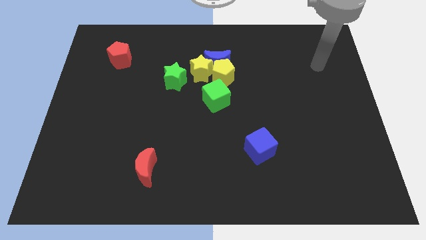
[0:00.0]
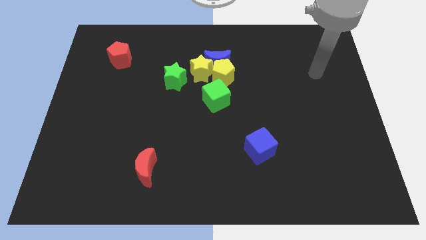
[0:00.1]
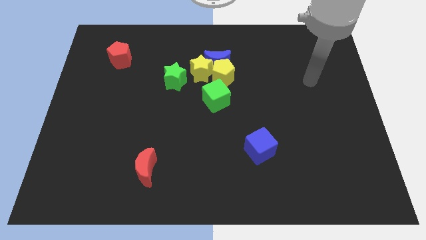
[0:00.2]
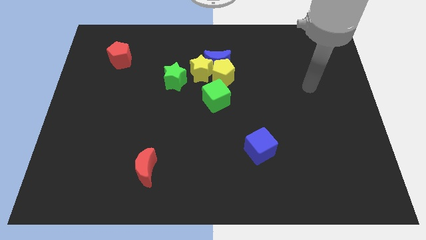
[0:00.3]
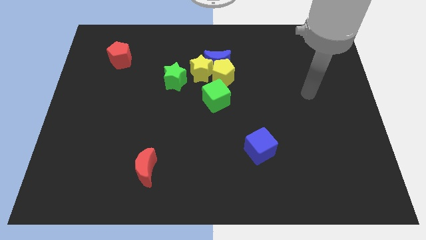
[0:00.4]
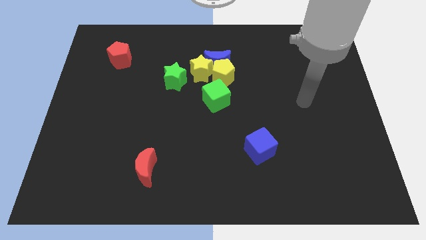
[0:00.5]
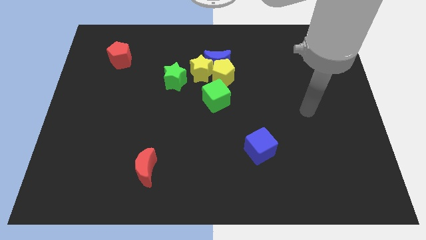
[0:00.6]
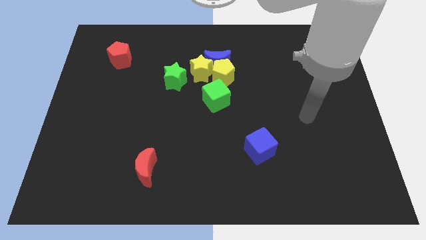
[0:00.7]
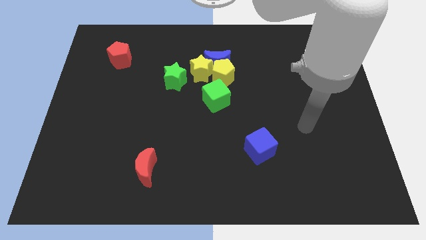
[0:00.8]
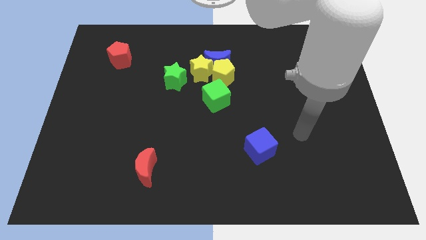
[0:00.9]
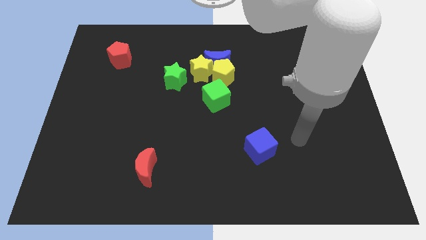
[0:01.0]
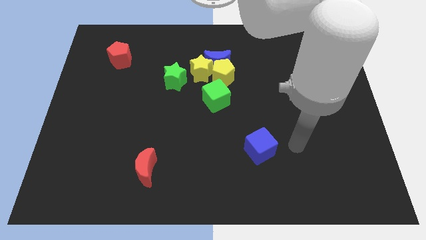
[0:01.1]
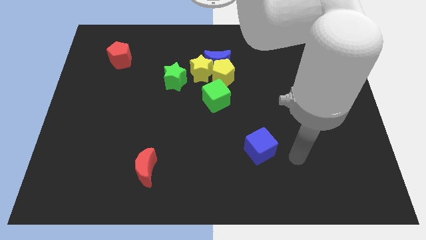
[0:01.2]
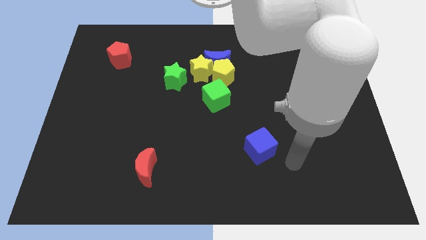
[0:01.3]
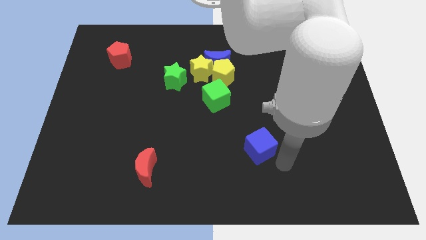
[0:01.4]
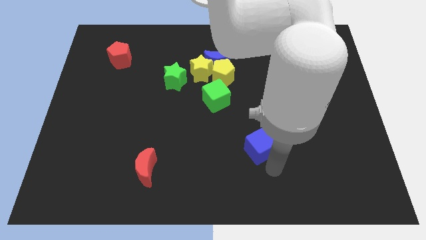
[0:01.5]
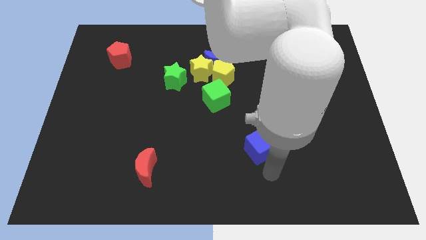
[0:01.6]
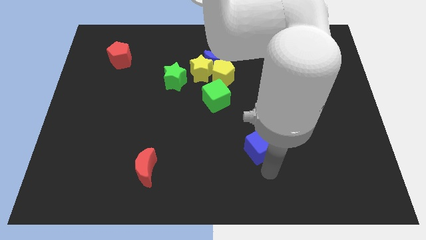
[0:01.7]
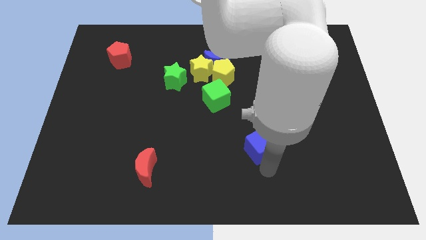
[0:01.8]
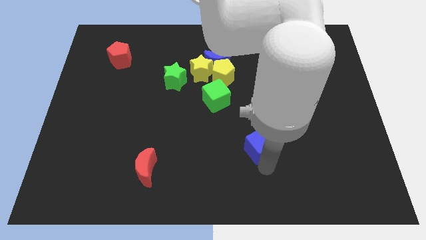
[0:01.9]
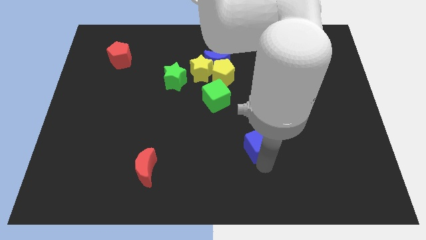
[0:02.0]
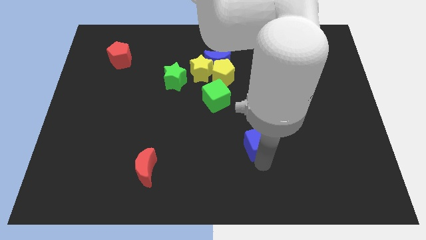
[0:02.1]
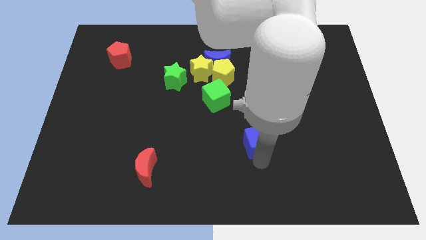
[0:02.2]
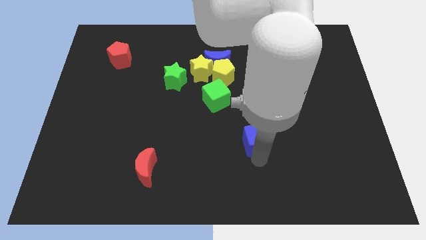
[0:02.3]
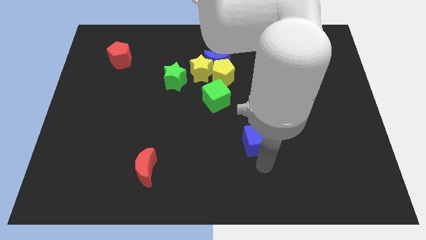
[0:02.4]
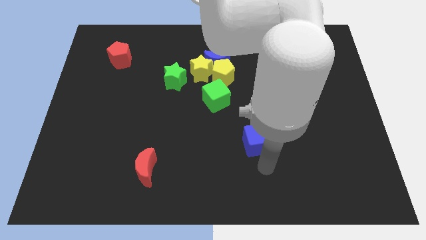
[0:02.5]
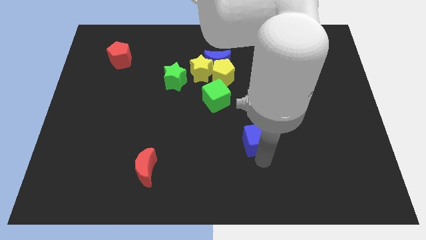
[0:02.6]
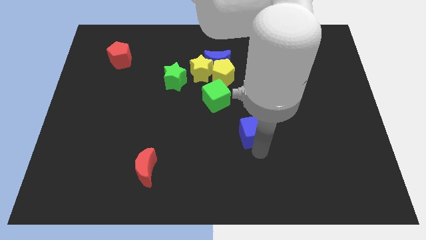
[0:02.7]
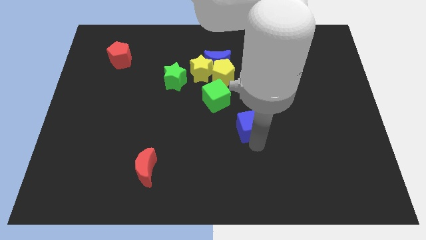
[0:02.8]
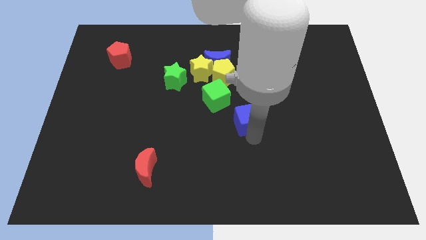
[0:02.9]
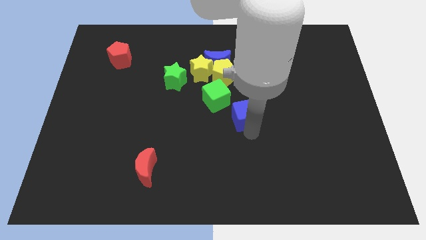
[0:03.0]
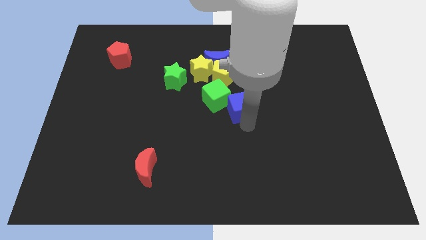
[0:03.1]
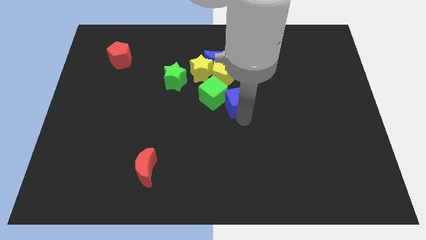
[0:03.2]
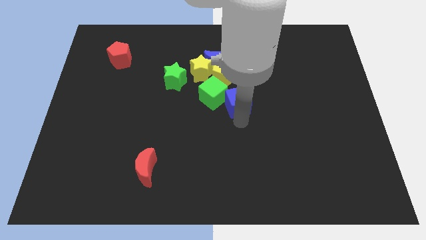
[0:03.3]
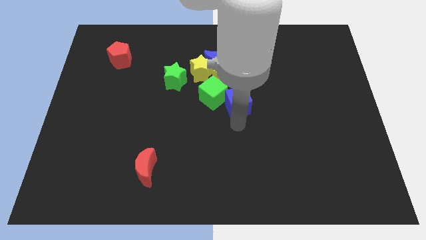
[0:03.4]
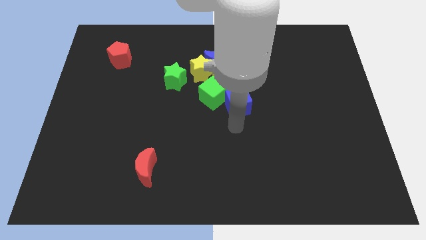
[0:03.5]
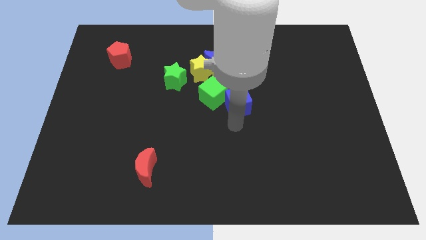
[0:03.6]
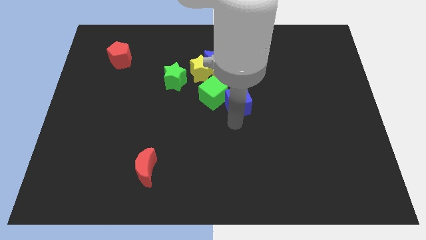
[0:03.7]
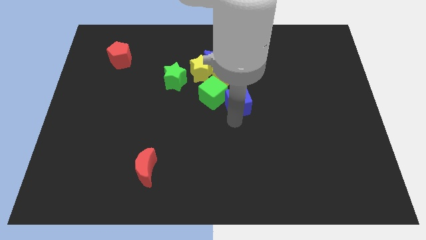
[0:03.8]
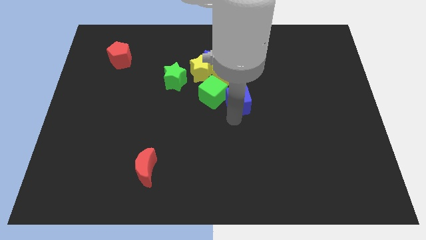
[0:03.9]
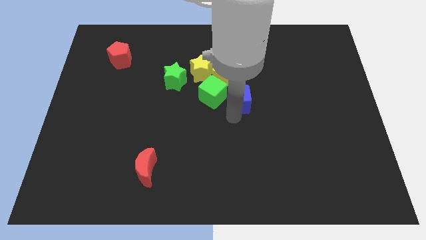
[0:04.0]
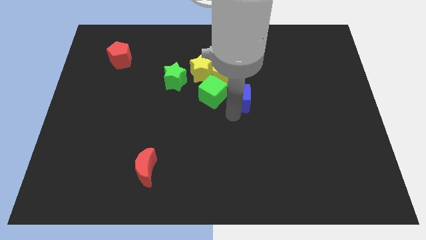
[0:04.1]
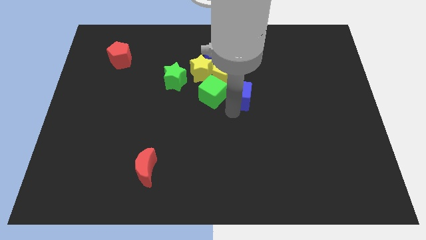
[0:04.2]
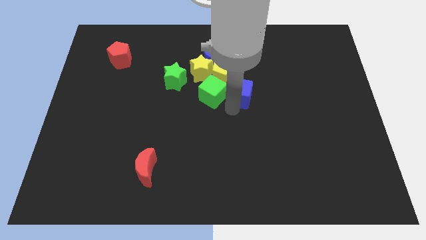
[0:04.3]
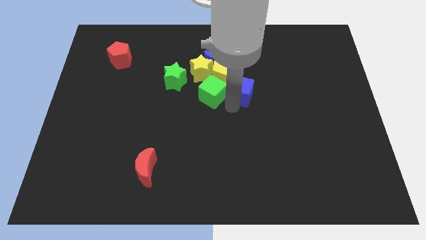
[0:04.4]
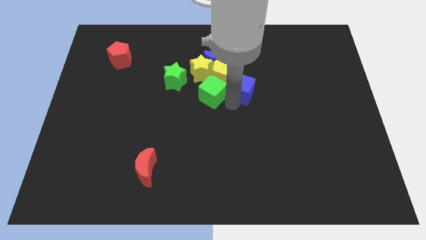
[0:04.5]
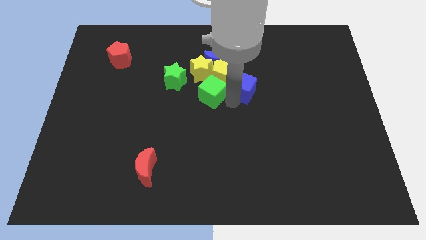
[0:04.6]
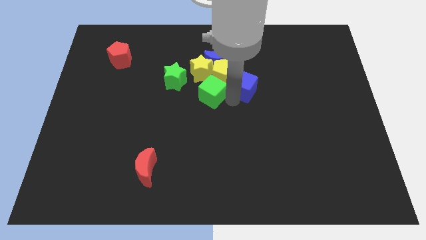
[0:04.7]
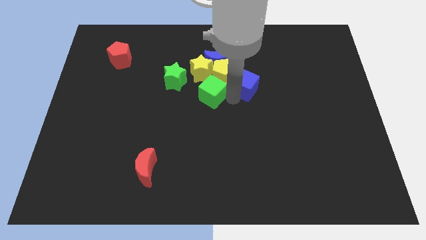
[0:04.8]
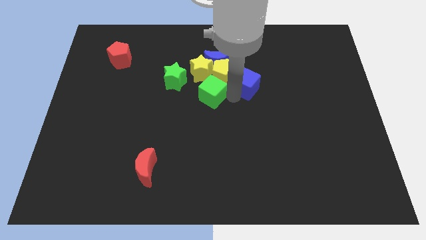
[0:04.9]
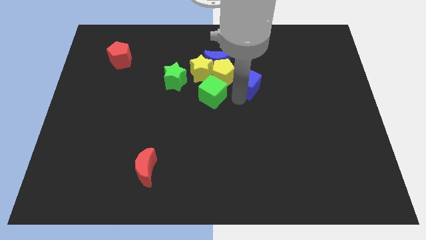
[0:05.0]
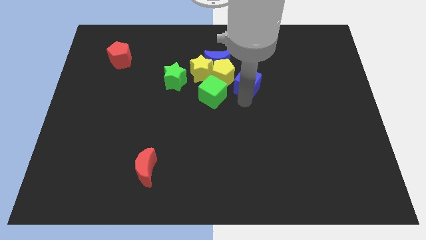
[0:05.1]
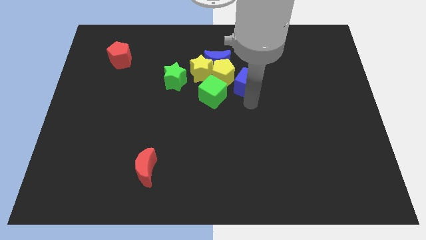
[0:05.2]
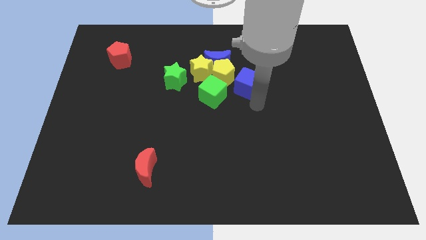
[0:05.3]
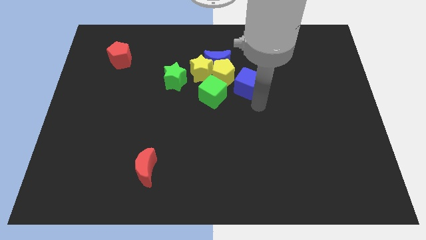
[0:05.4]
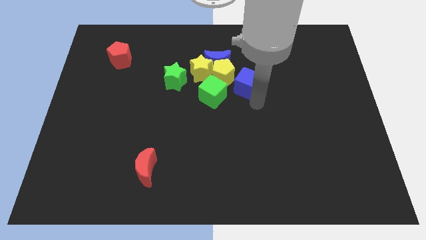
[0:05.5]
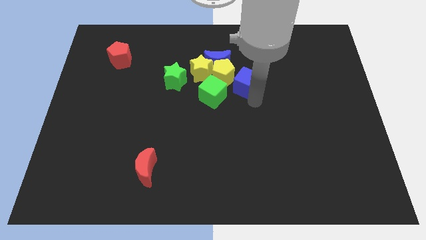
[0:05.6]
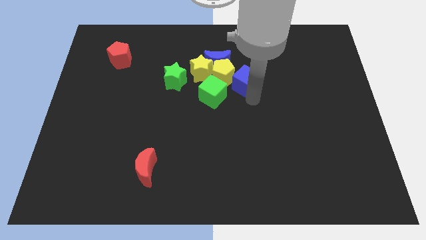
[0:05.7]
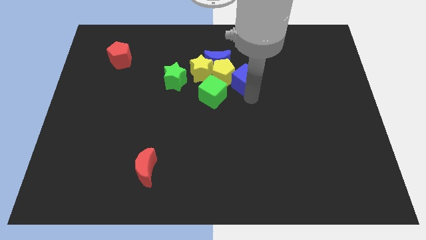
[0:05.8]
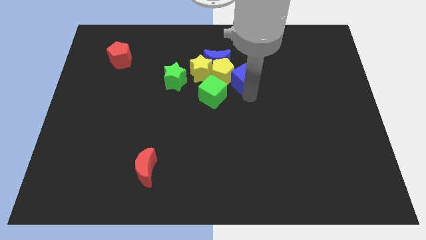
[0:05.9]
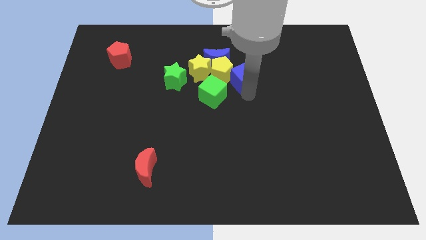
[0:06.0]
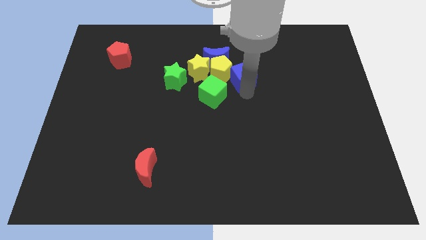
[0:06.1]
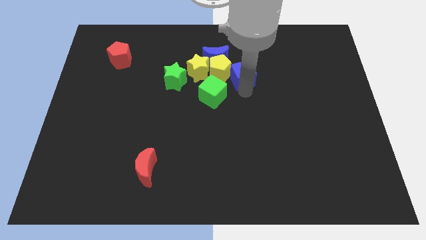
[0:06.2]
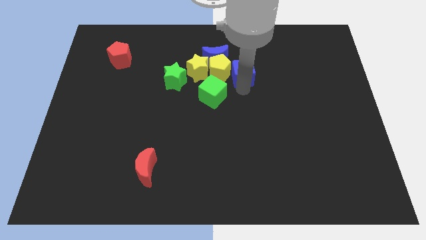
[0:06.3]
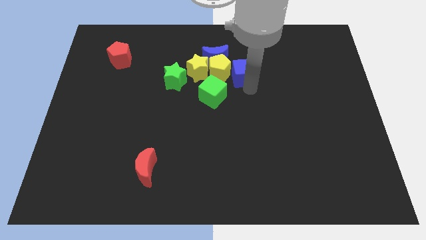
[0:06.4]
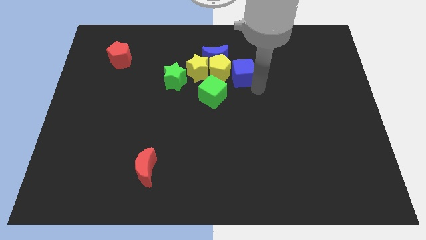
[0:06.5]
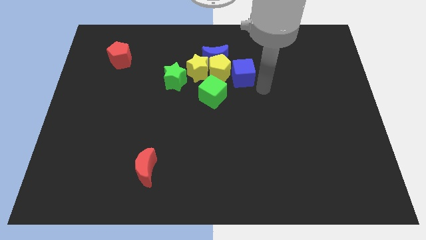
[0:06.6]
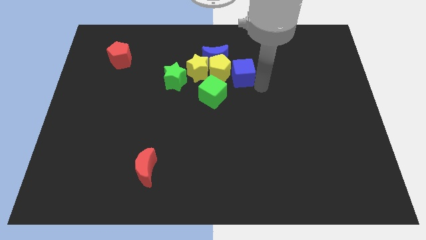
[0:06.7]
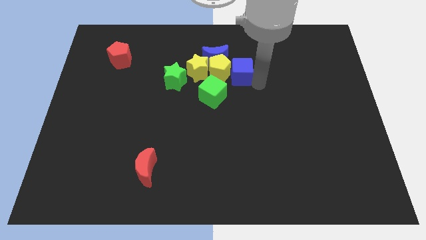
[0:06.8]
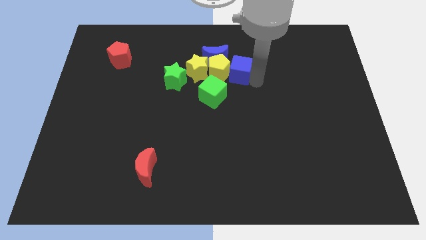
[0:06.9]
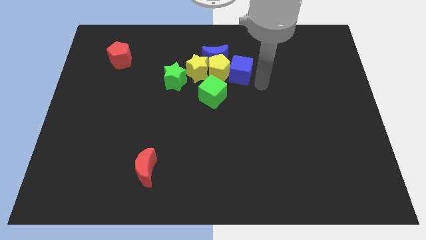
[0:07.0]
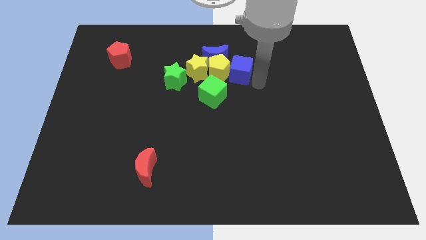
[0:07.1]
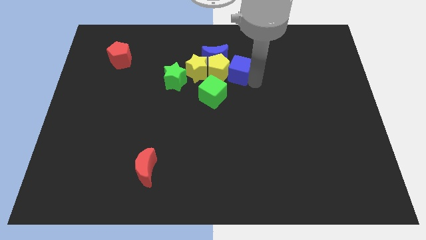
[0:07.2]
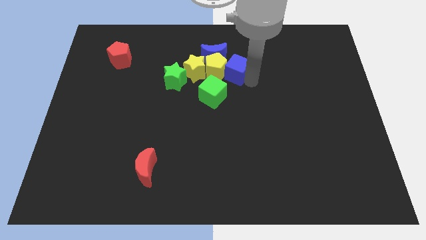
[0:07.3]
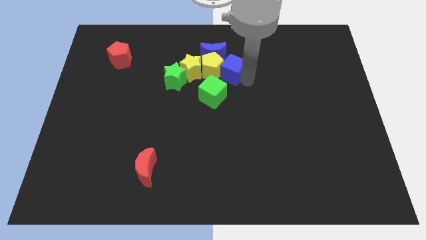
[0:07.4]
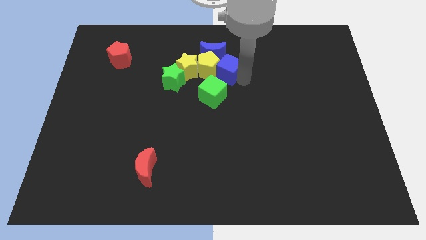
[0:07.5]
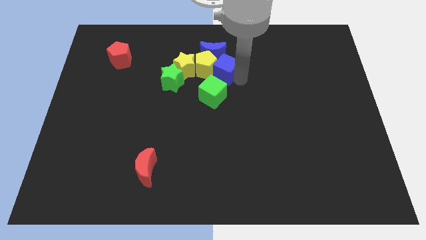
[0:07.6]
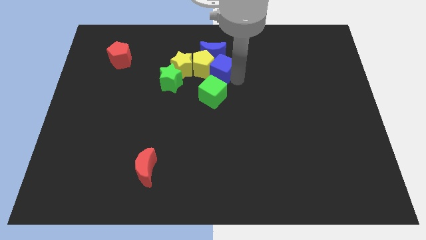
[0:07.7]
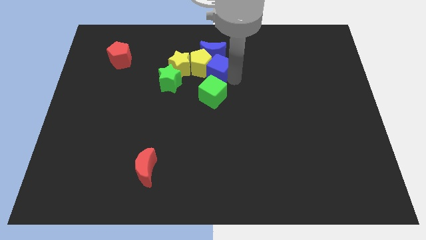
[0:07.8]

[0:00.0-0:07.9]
put the blue cube next to the blue moon
